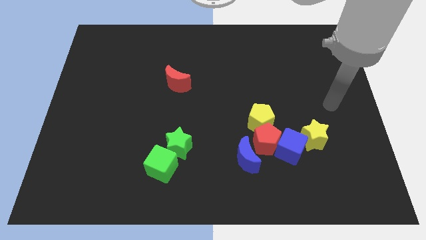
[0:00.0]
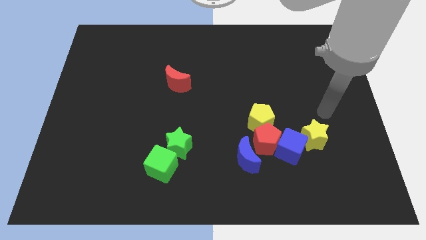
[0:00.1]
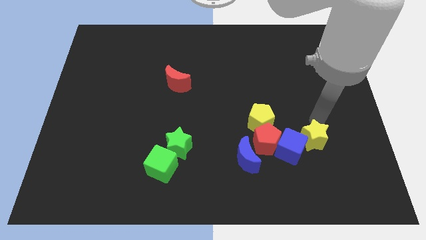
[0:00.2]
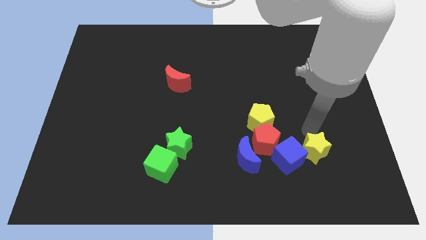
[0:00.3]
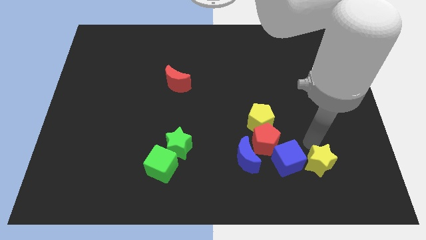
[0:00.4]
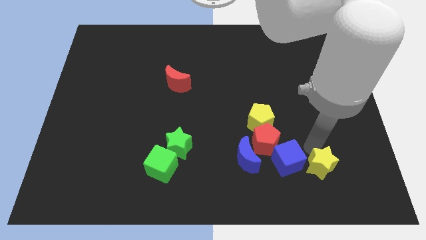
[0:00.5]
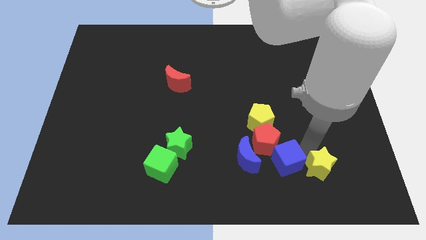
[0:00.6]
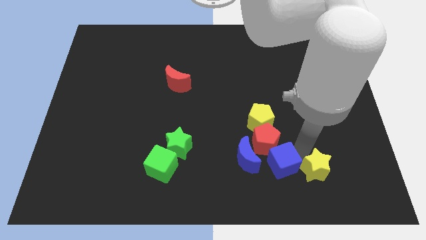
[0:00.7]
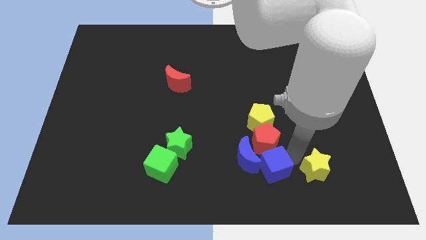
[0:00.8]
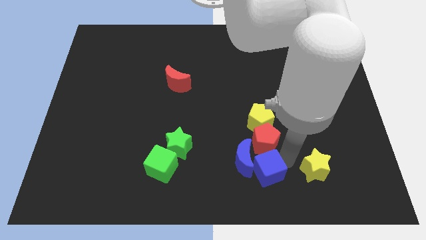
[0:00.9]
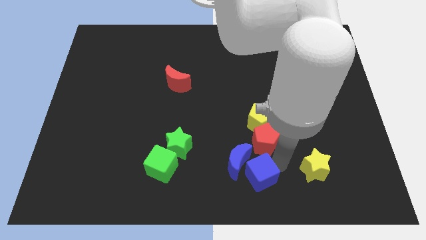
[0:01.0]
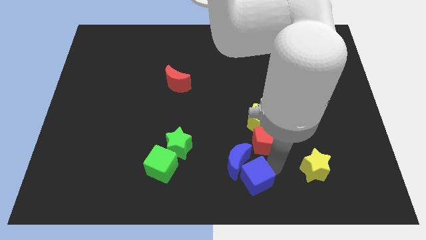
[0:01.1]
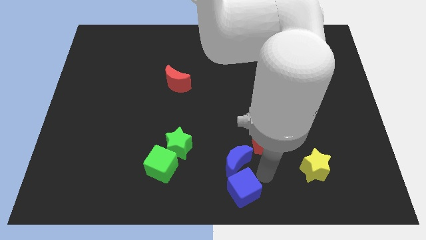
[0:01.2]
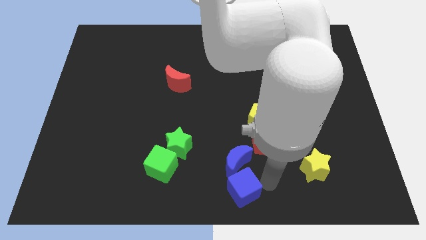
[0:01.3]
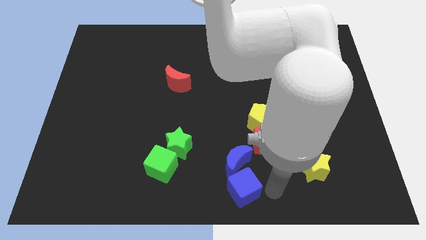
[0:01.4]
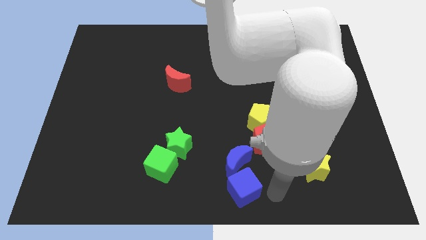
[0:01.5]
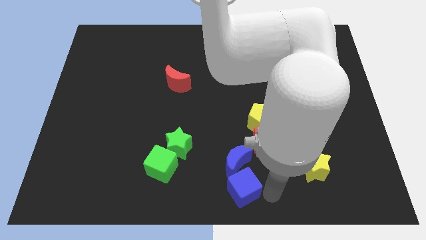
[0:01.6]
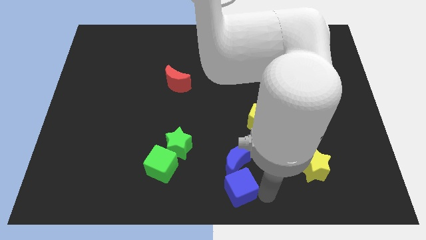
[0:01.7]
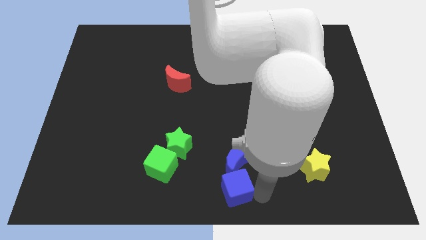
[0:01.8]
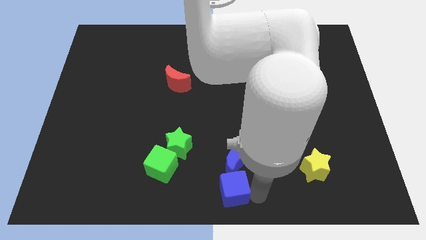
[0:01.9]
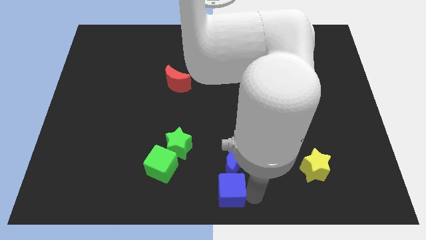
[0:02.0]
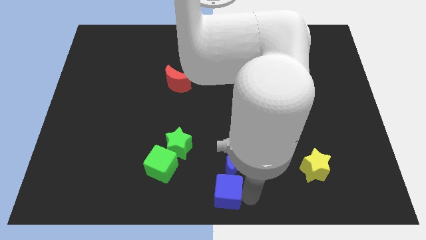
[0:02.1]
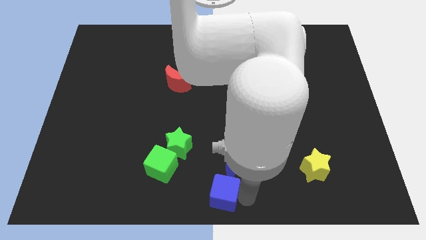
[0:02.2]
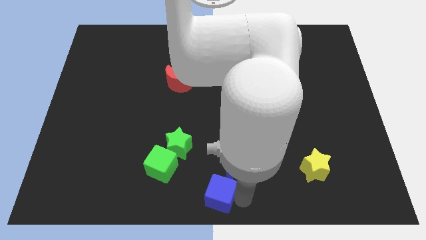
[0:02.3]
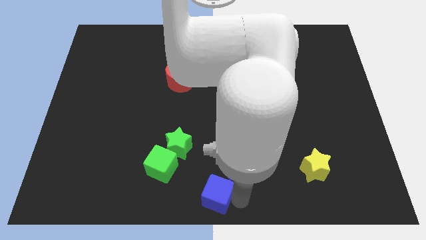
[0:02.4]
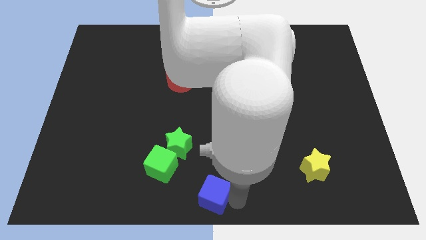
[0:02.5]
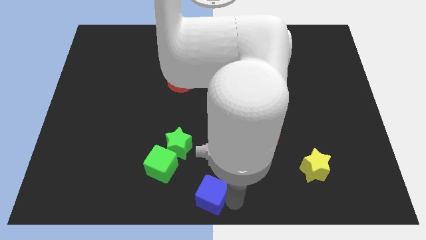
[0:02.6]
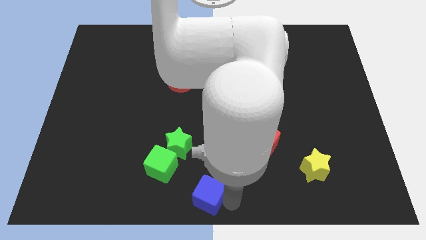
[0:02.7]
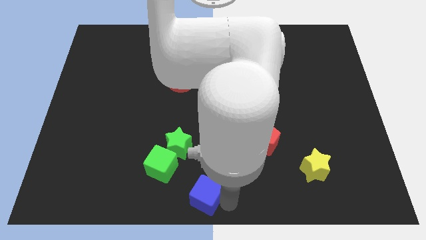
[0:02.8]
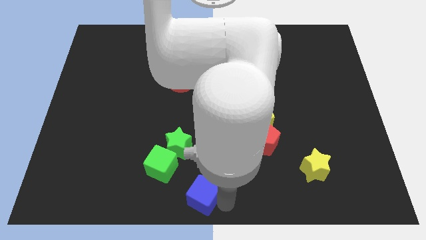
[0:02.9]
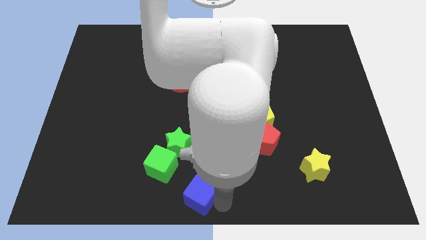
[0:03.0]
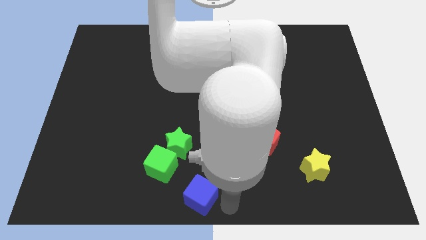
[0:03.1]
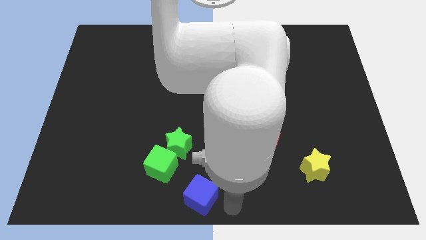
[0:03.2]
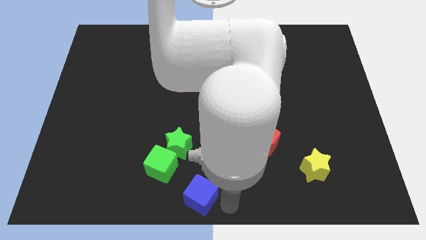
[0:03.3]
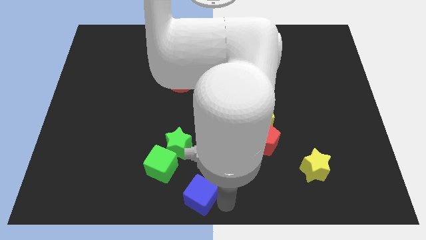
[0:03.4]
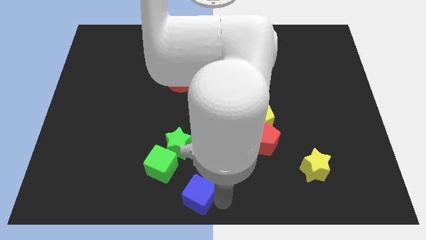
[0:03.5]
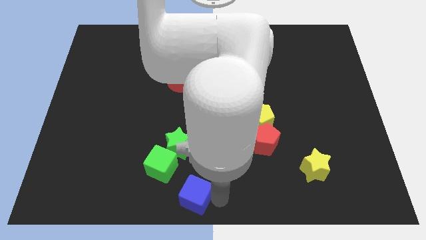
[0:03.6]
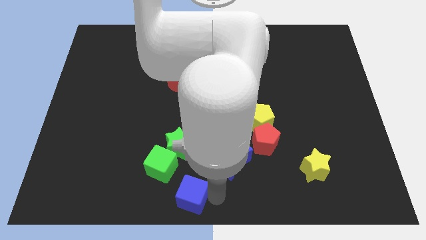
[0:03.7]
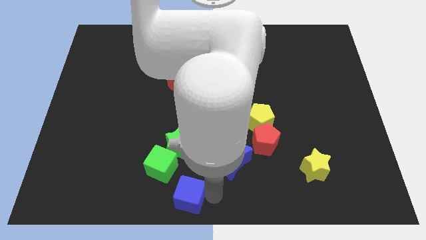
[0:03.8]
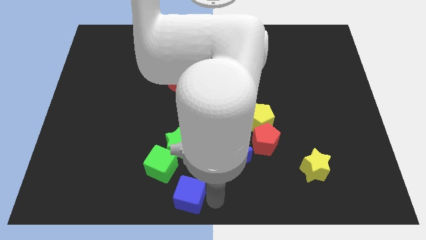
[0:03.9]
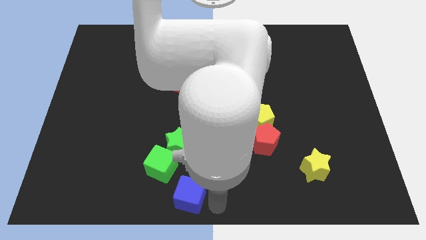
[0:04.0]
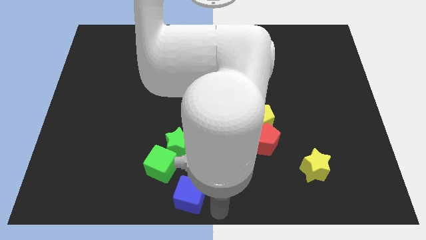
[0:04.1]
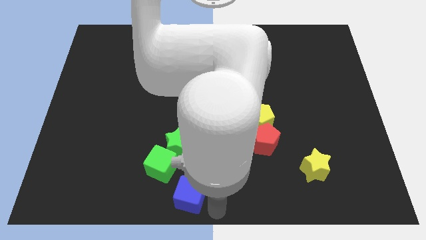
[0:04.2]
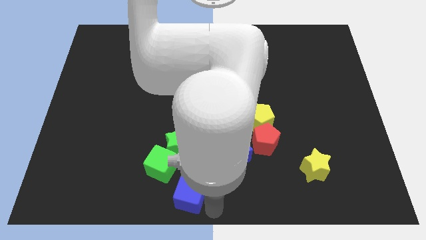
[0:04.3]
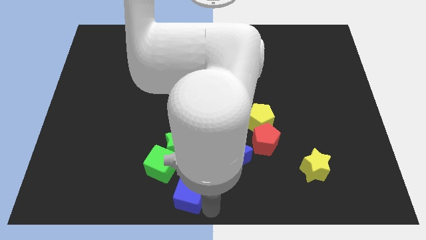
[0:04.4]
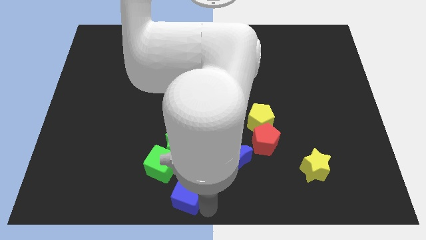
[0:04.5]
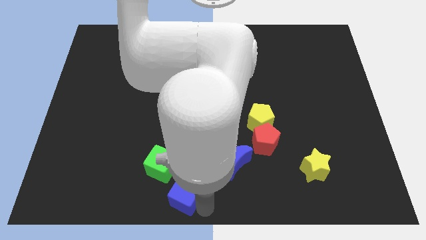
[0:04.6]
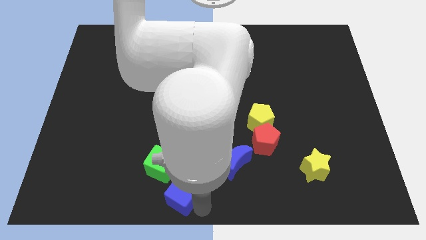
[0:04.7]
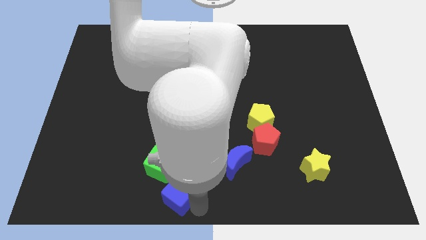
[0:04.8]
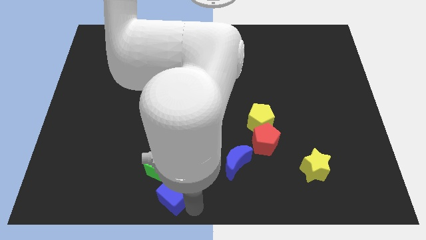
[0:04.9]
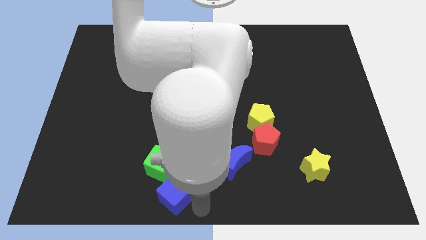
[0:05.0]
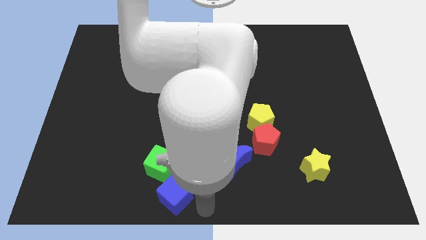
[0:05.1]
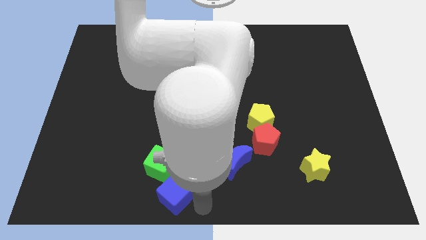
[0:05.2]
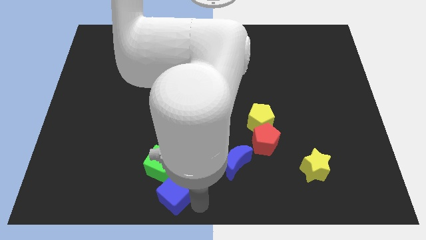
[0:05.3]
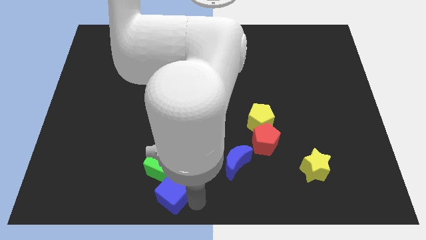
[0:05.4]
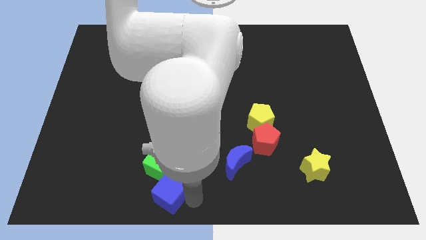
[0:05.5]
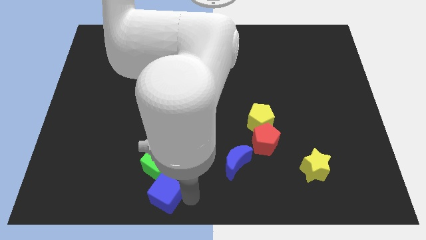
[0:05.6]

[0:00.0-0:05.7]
move the blue cube left

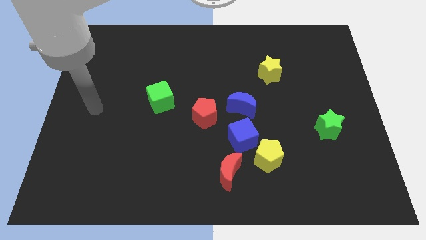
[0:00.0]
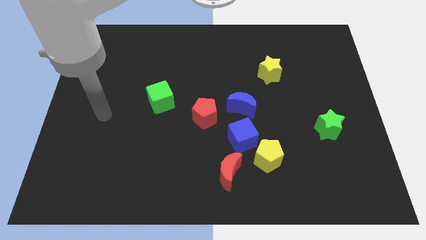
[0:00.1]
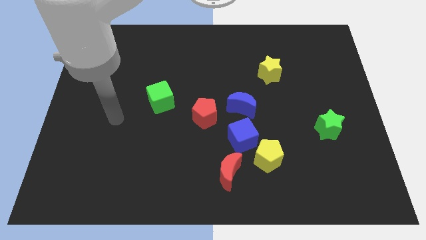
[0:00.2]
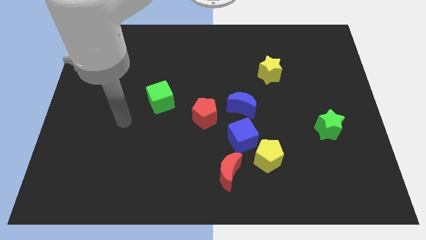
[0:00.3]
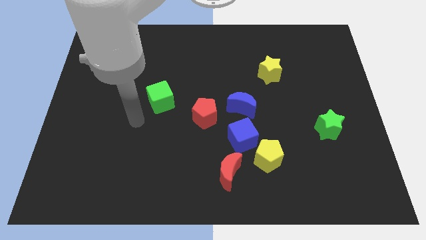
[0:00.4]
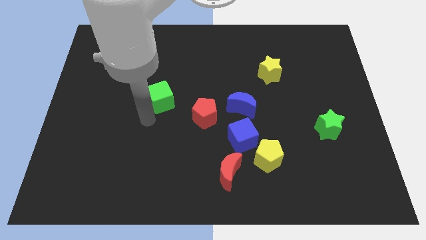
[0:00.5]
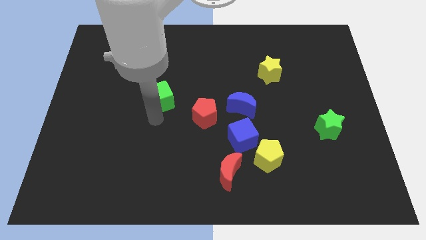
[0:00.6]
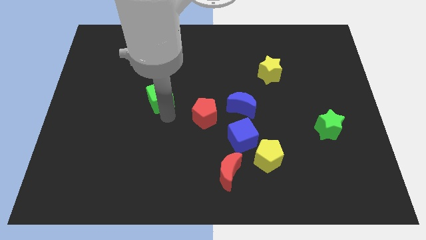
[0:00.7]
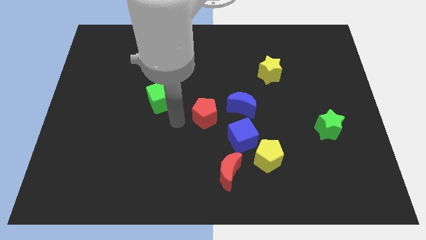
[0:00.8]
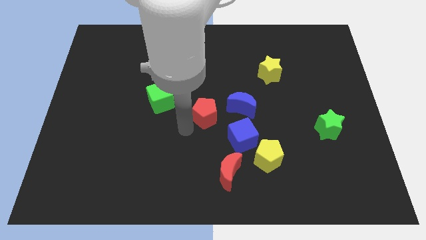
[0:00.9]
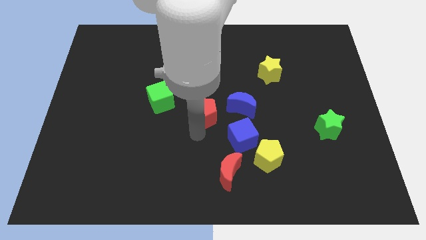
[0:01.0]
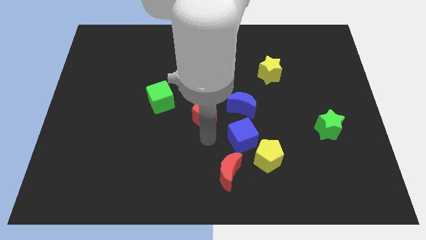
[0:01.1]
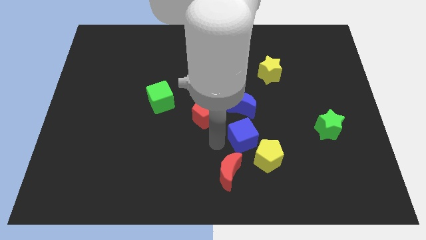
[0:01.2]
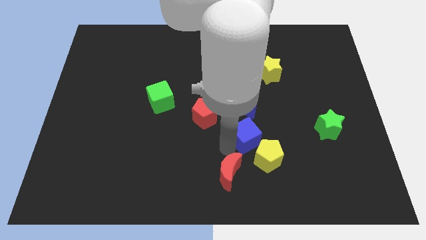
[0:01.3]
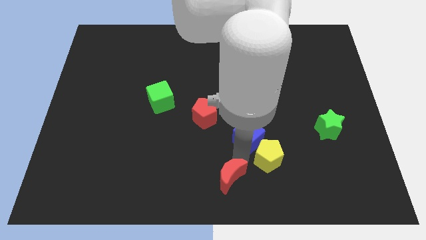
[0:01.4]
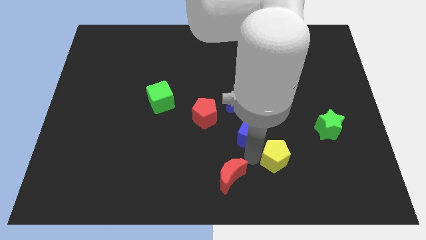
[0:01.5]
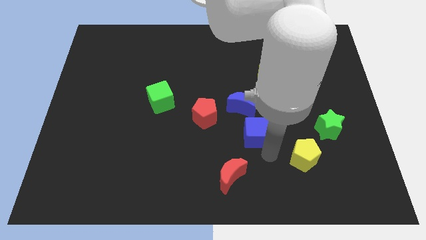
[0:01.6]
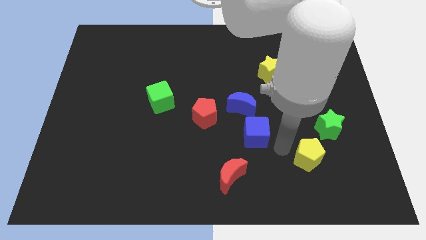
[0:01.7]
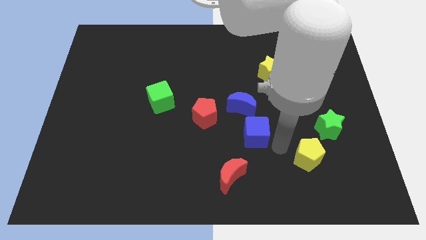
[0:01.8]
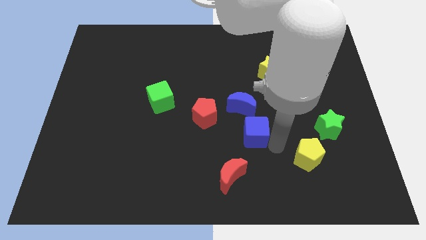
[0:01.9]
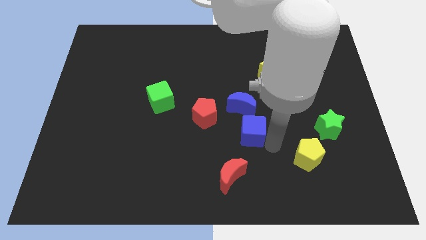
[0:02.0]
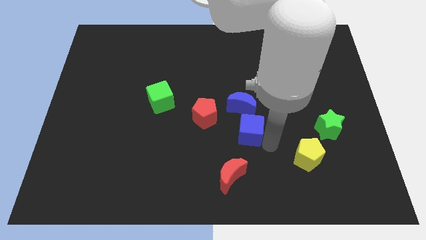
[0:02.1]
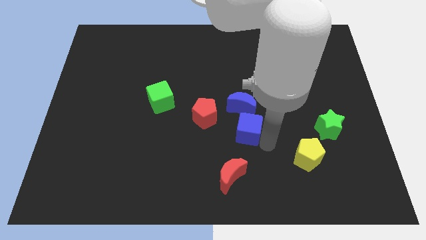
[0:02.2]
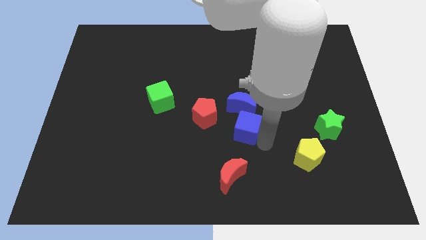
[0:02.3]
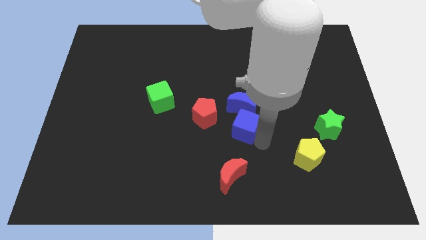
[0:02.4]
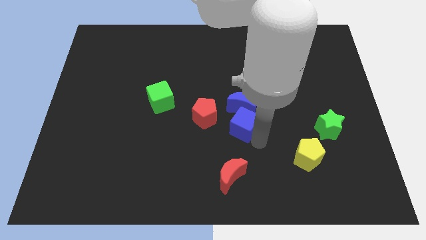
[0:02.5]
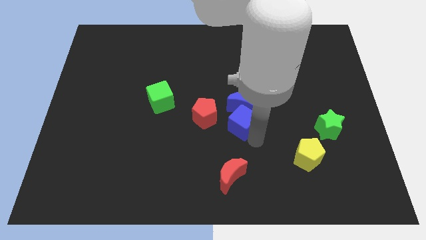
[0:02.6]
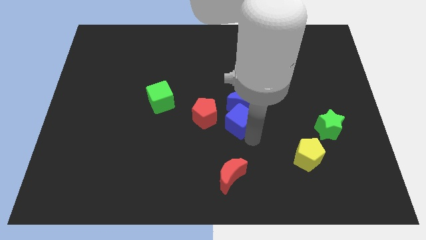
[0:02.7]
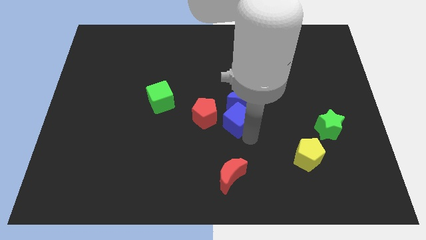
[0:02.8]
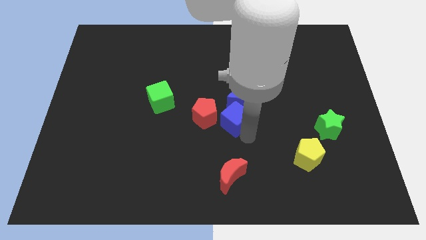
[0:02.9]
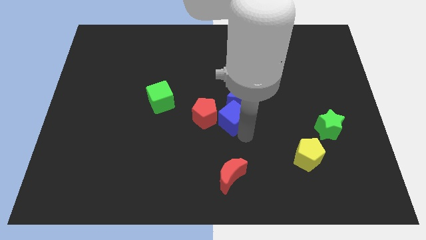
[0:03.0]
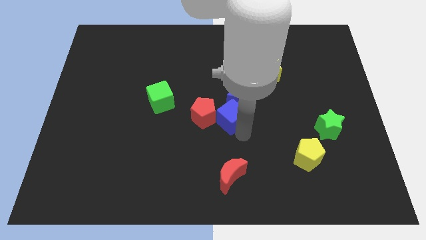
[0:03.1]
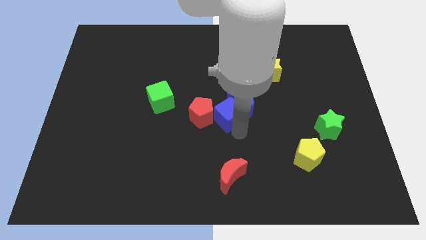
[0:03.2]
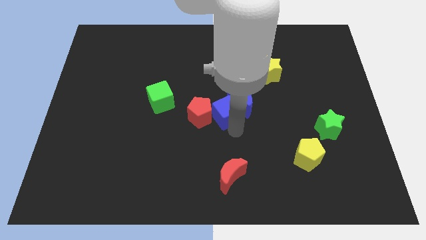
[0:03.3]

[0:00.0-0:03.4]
slightly slide the blue cube upwards and left
